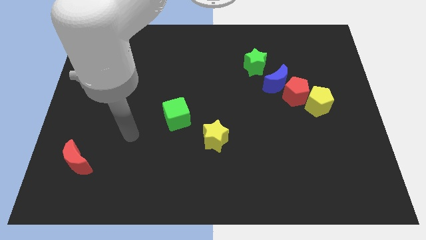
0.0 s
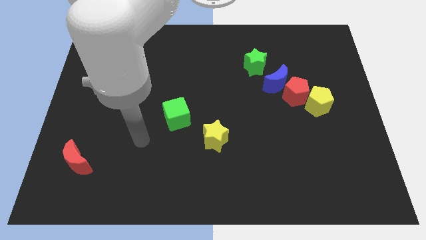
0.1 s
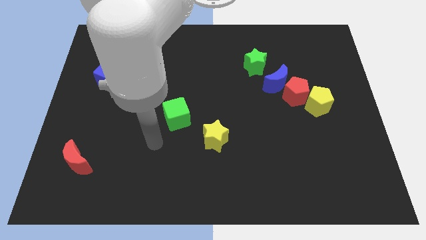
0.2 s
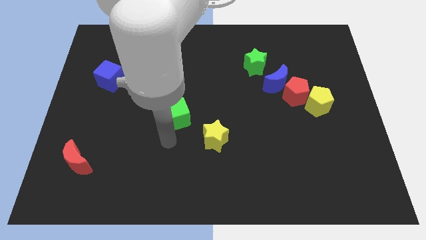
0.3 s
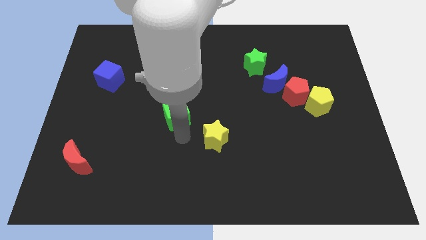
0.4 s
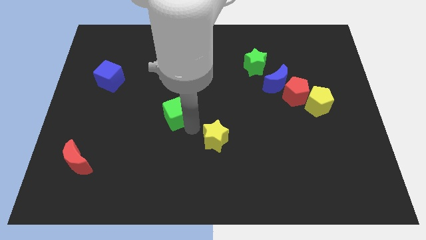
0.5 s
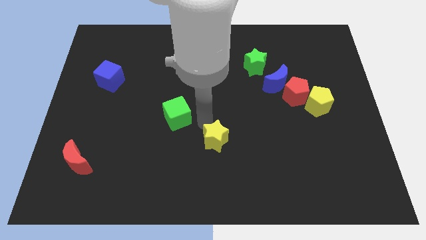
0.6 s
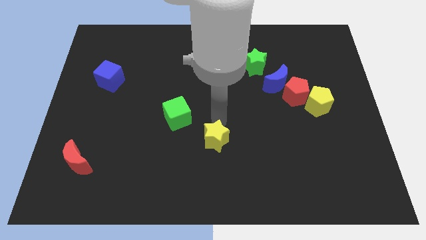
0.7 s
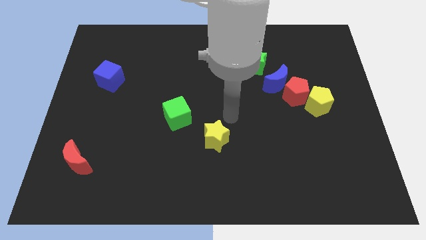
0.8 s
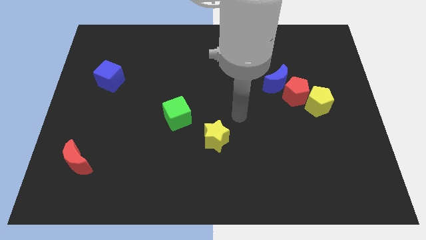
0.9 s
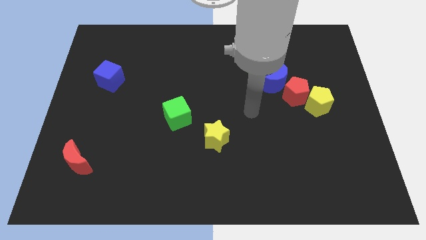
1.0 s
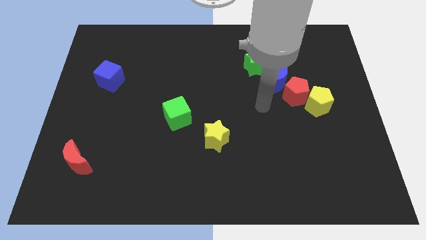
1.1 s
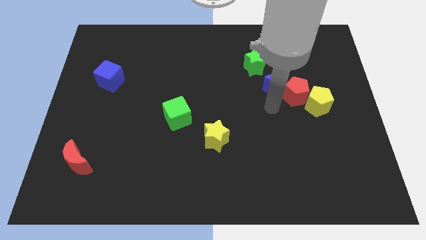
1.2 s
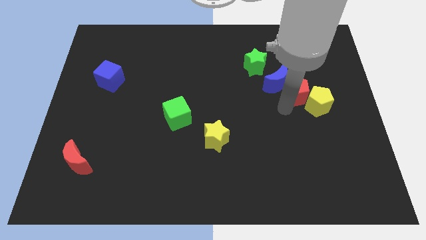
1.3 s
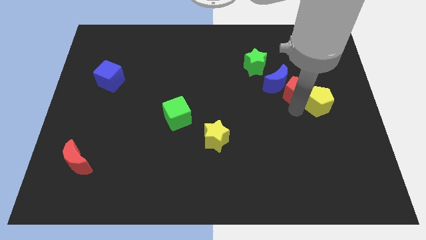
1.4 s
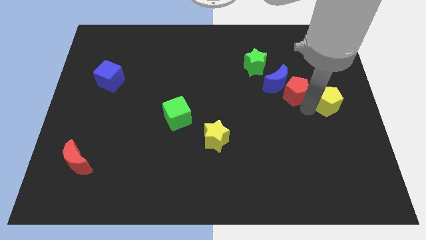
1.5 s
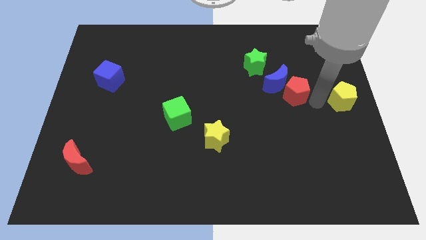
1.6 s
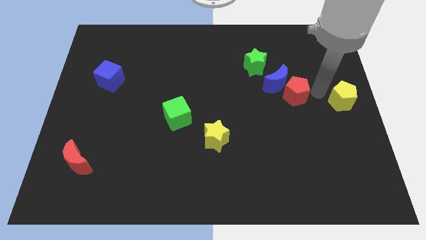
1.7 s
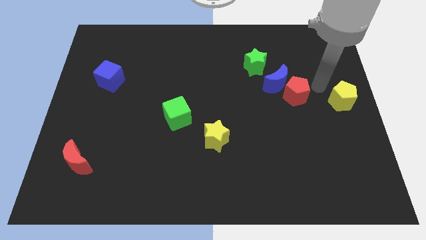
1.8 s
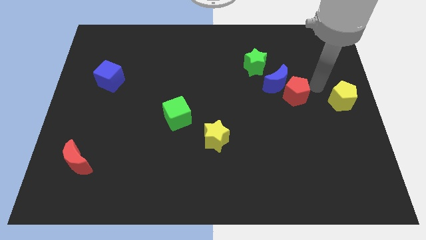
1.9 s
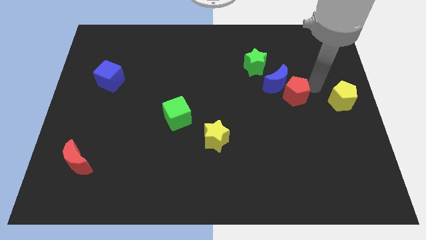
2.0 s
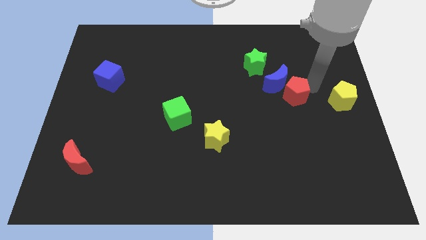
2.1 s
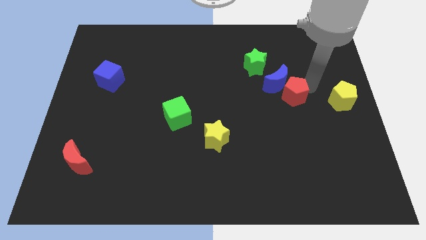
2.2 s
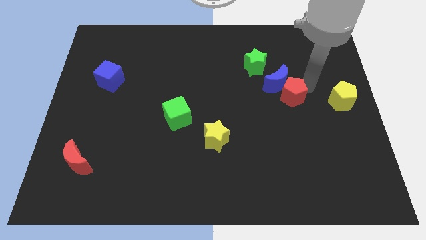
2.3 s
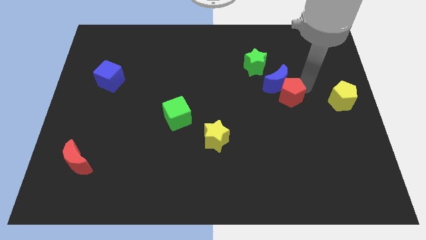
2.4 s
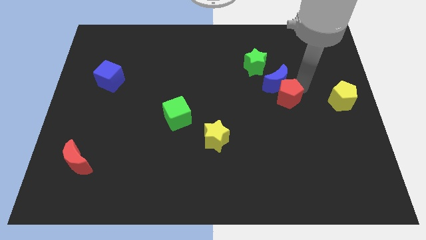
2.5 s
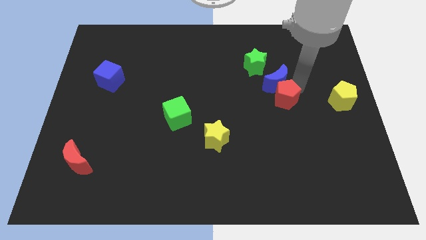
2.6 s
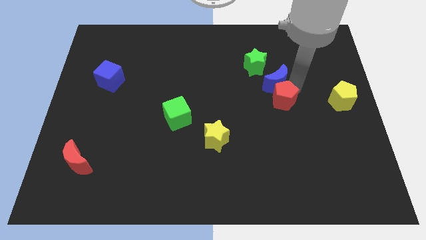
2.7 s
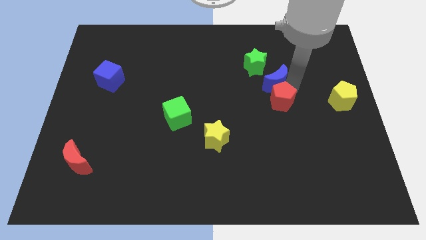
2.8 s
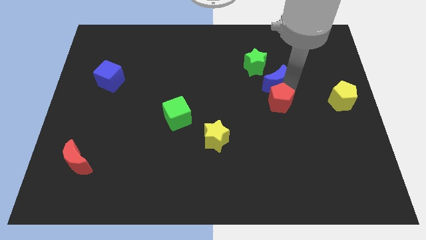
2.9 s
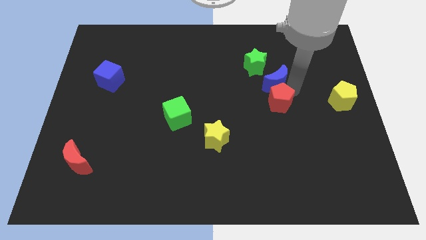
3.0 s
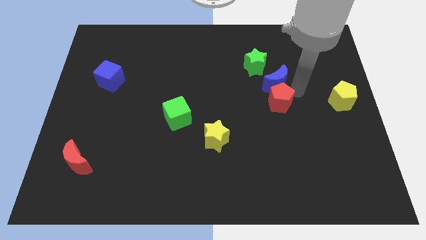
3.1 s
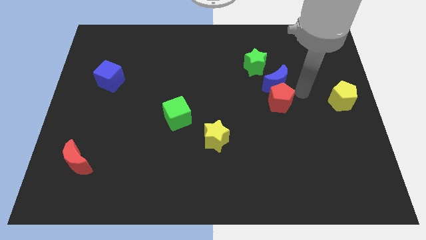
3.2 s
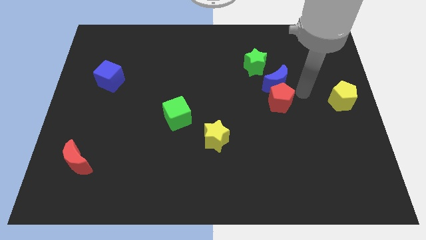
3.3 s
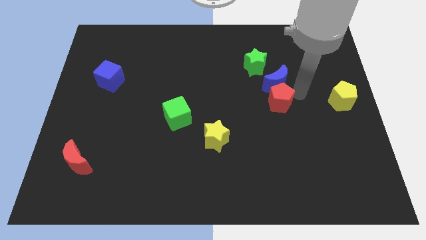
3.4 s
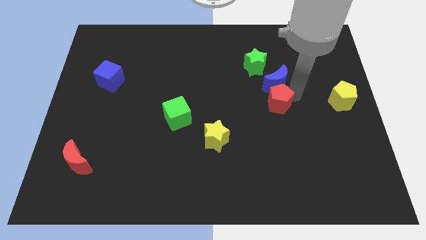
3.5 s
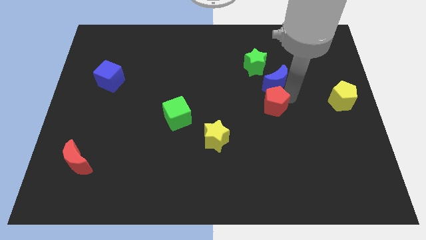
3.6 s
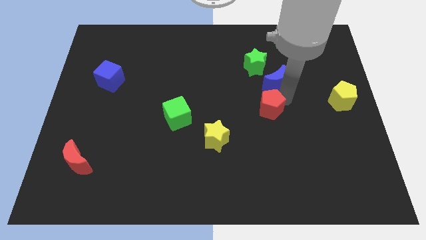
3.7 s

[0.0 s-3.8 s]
move the red pentagon away from the blue moon and yellow pentagon

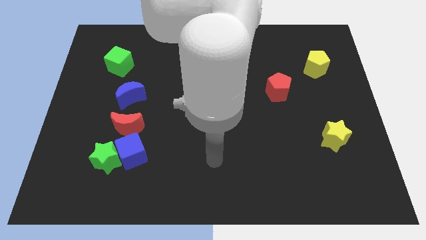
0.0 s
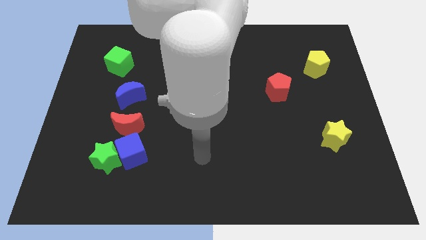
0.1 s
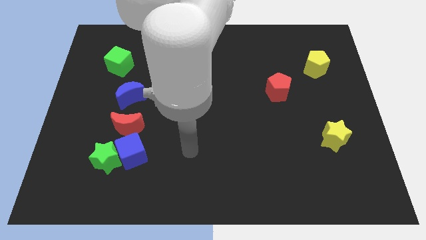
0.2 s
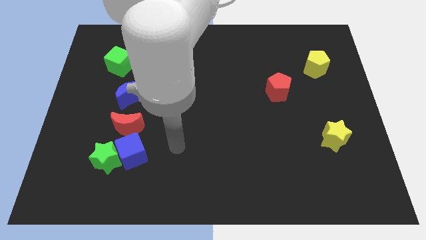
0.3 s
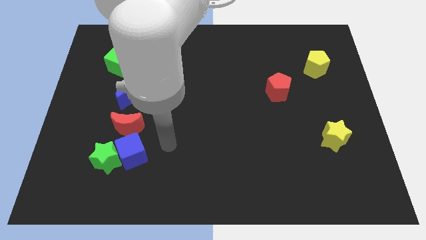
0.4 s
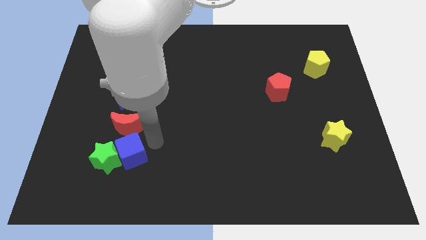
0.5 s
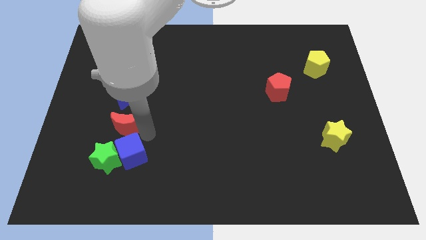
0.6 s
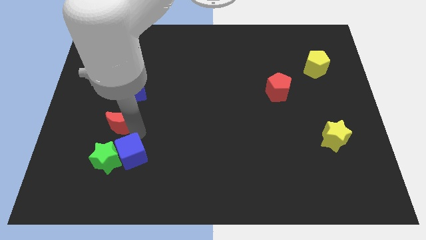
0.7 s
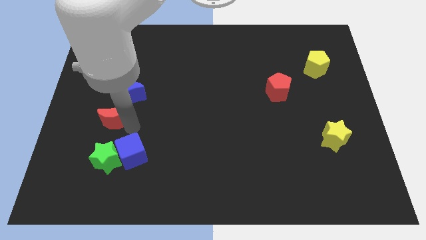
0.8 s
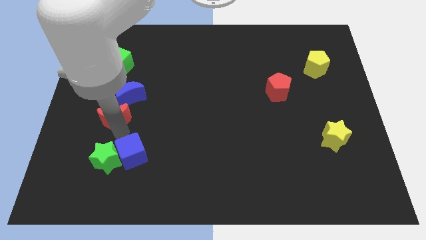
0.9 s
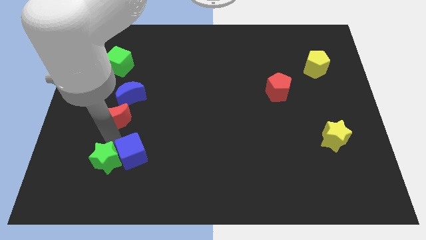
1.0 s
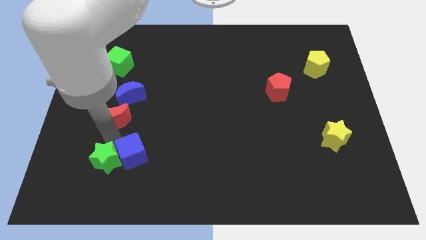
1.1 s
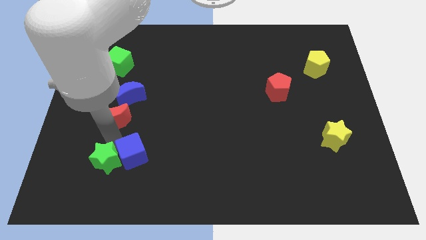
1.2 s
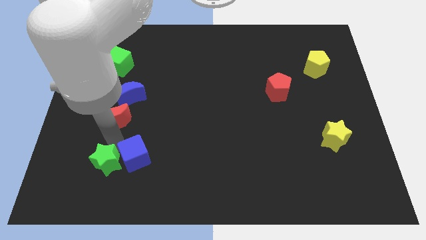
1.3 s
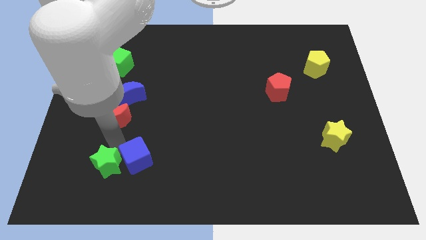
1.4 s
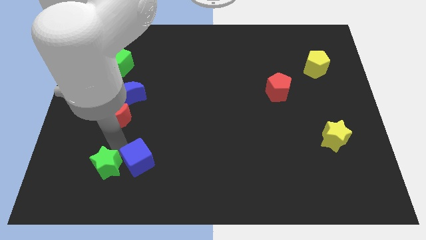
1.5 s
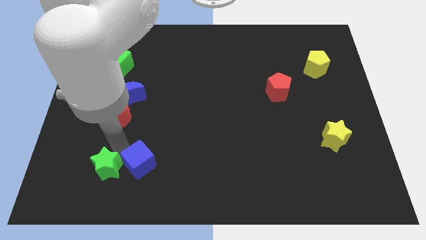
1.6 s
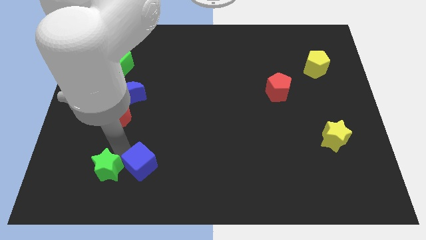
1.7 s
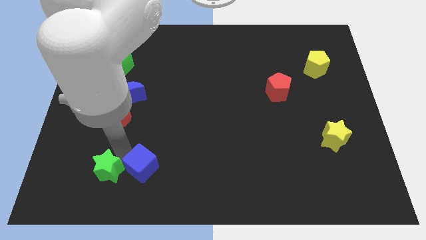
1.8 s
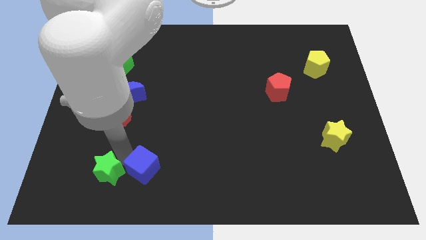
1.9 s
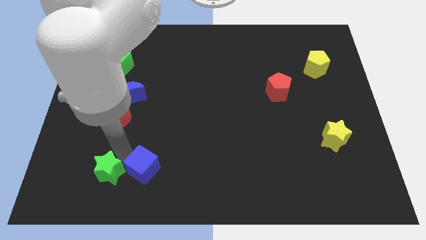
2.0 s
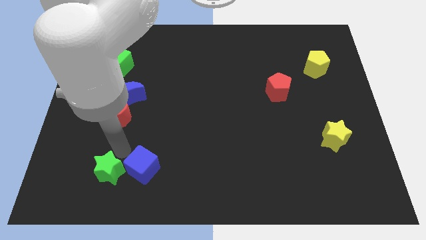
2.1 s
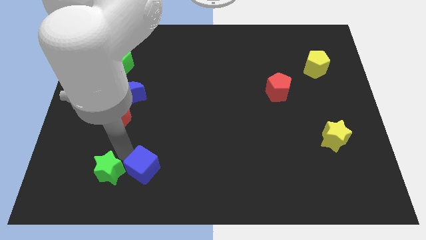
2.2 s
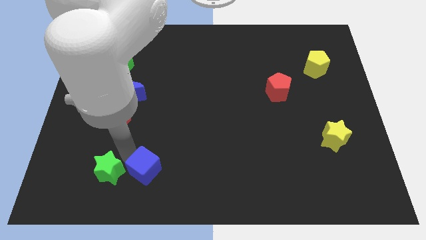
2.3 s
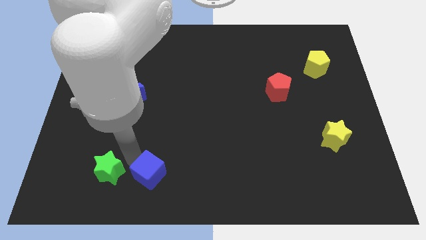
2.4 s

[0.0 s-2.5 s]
separate the blue cube from the green star and red moon

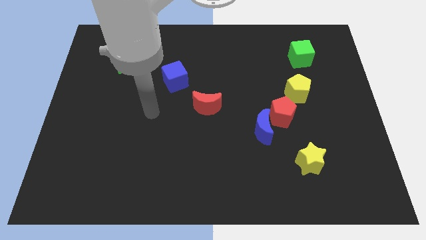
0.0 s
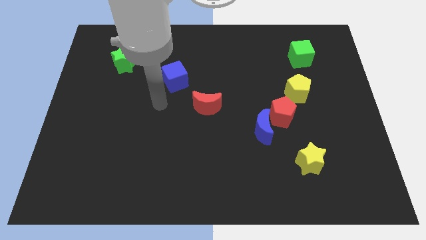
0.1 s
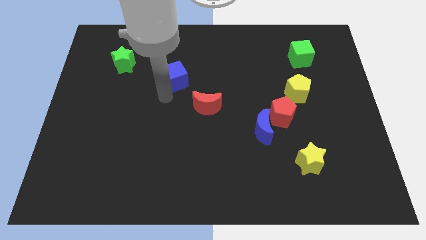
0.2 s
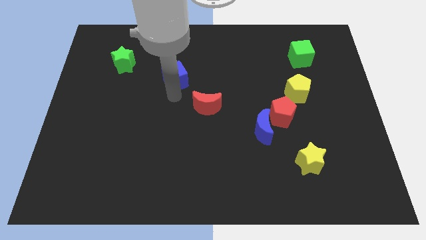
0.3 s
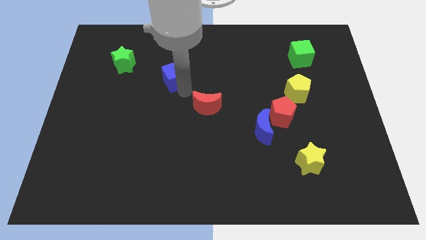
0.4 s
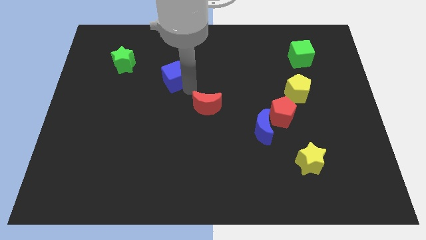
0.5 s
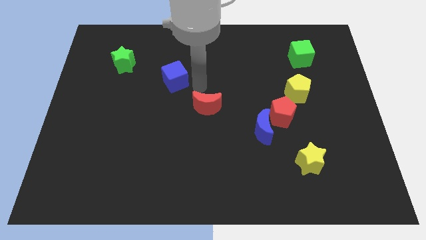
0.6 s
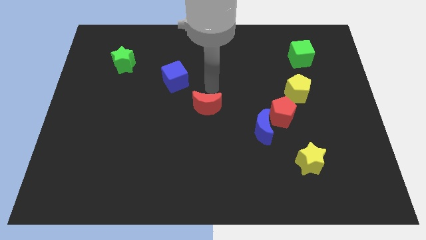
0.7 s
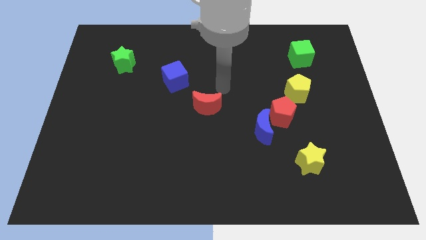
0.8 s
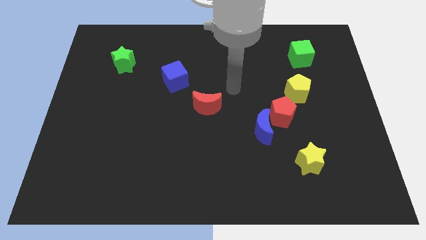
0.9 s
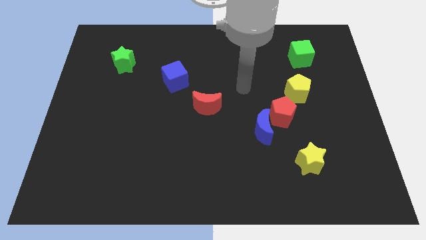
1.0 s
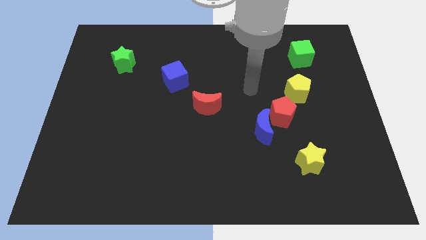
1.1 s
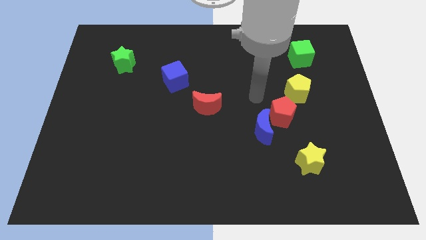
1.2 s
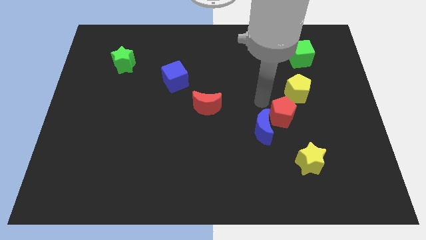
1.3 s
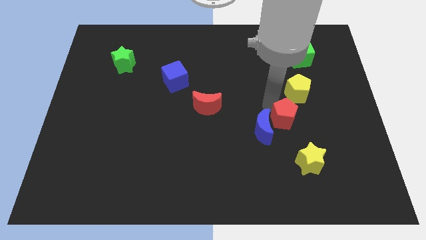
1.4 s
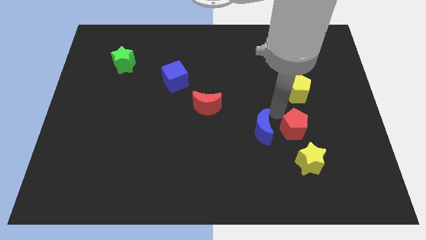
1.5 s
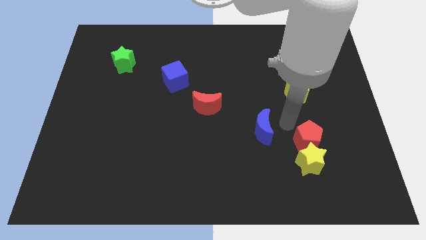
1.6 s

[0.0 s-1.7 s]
separate the blue moon from the red pentagon

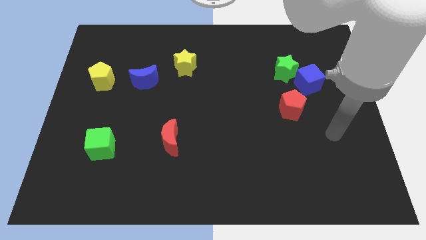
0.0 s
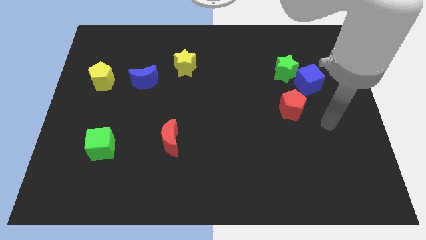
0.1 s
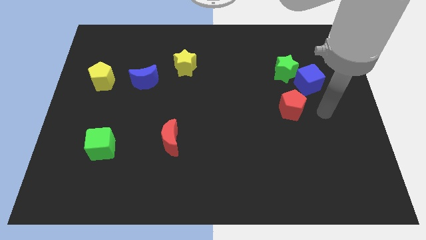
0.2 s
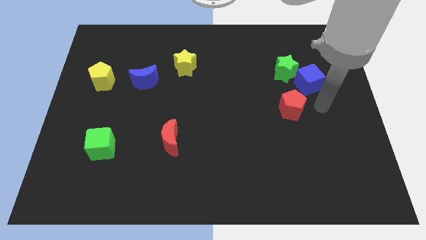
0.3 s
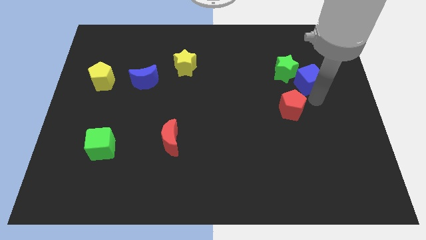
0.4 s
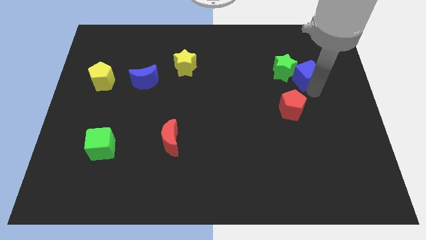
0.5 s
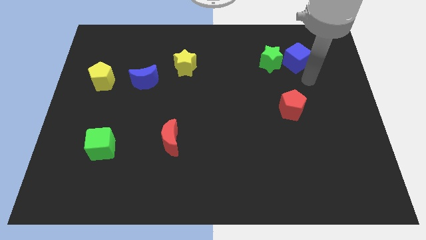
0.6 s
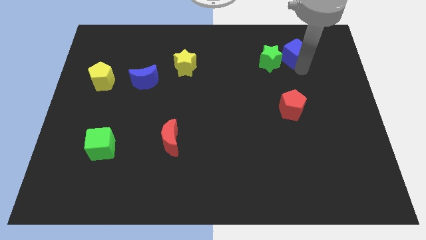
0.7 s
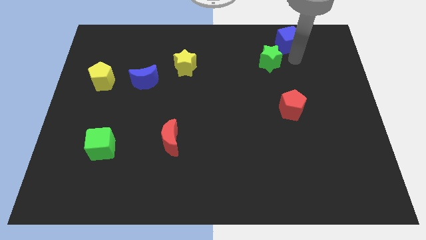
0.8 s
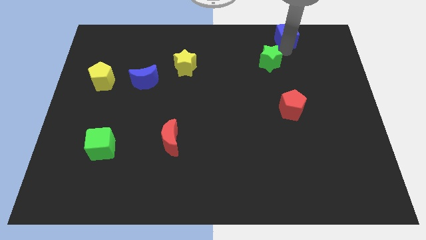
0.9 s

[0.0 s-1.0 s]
pull the green star apart from the blue cube

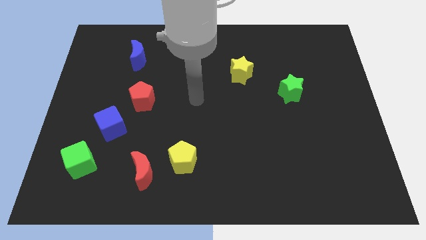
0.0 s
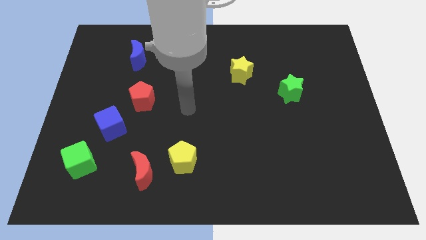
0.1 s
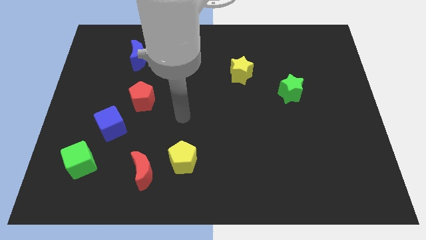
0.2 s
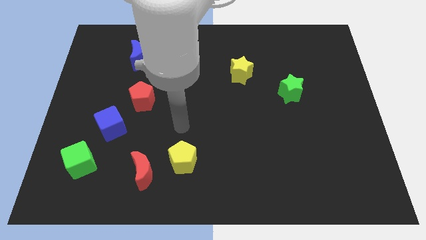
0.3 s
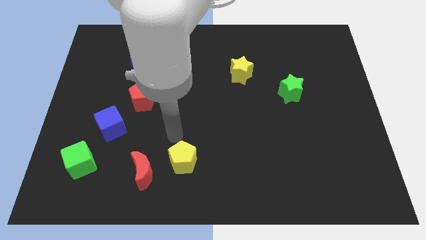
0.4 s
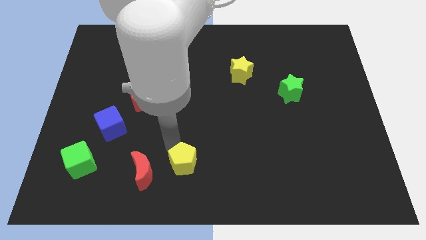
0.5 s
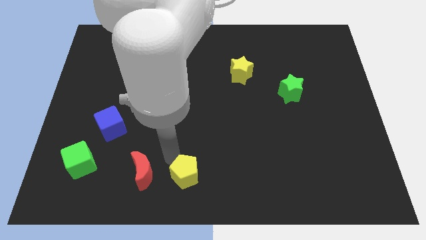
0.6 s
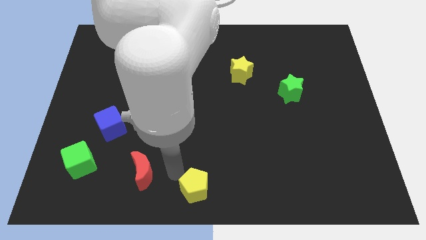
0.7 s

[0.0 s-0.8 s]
pull the red moon apart from the yellow pentagon
